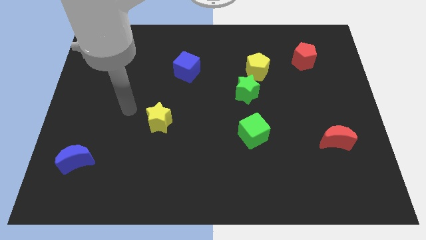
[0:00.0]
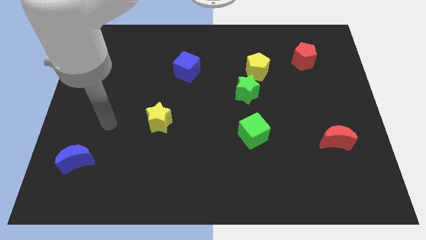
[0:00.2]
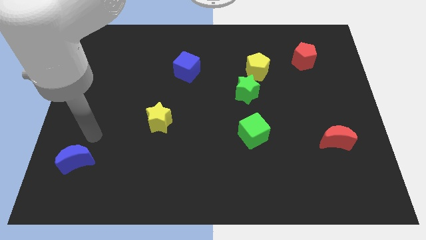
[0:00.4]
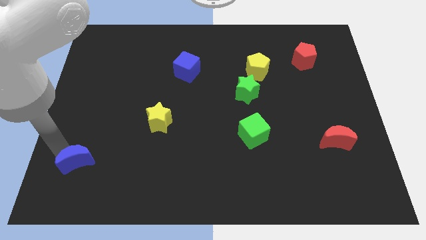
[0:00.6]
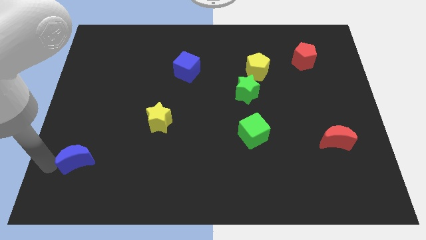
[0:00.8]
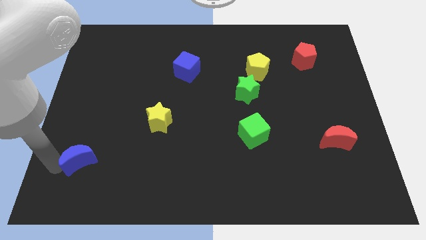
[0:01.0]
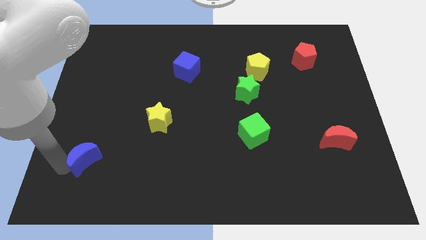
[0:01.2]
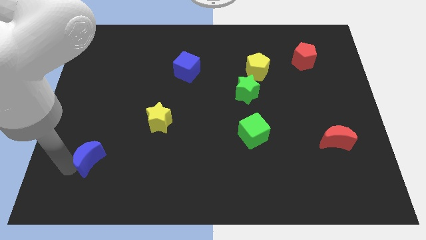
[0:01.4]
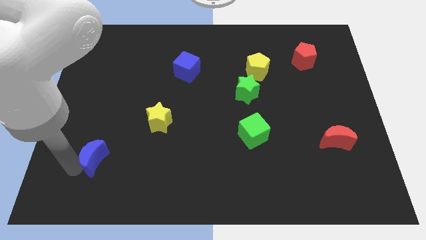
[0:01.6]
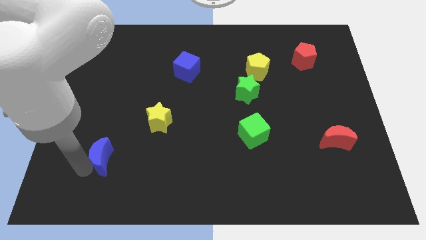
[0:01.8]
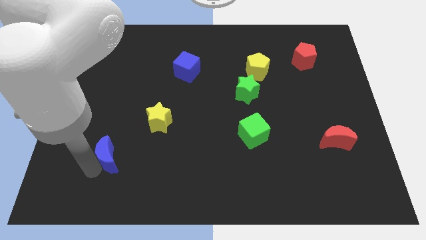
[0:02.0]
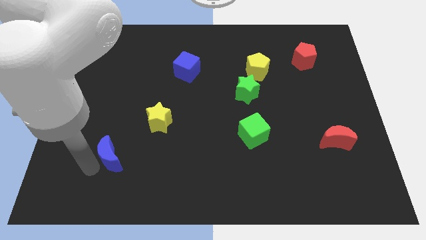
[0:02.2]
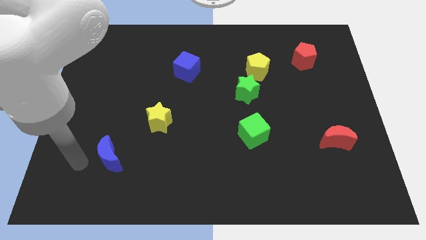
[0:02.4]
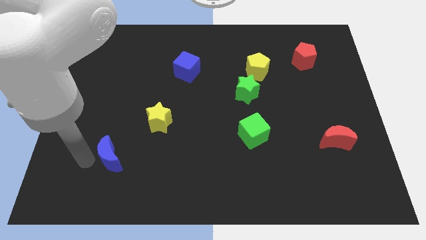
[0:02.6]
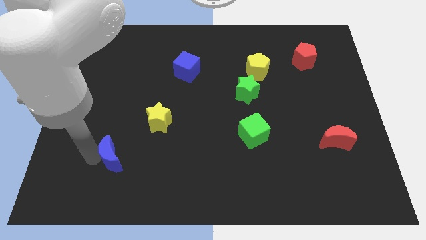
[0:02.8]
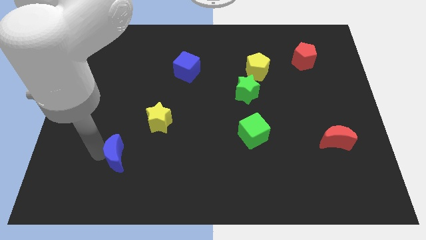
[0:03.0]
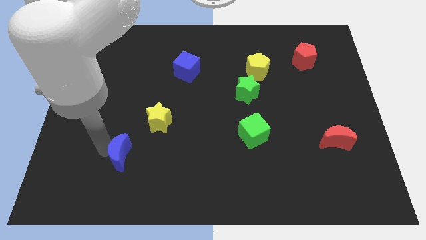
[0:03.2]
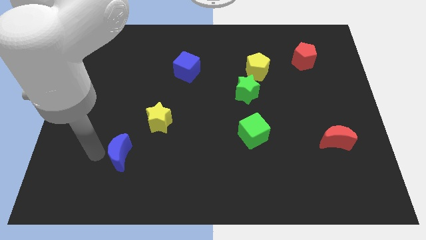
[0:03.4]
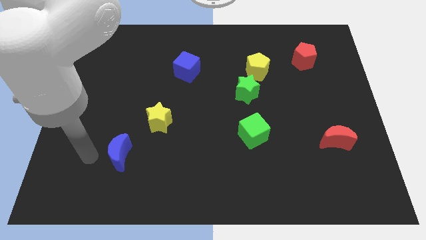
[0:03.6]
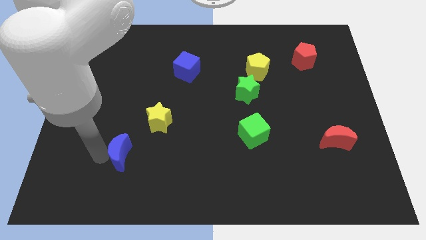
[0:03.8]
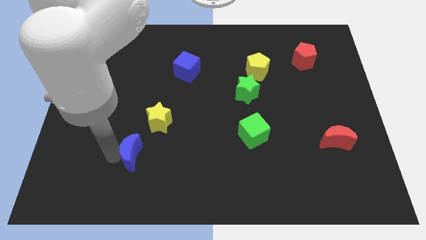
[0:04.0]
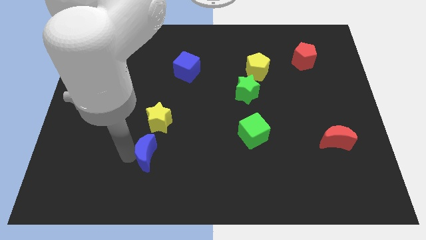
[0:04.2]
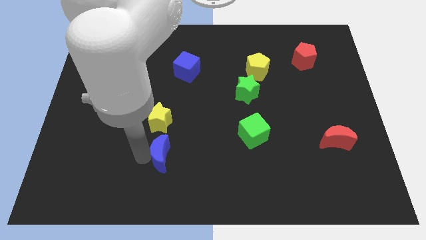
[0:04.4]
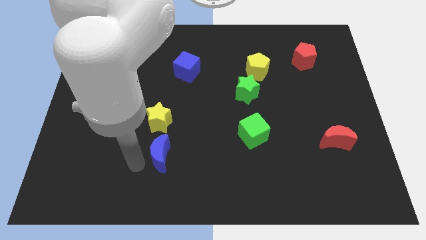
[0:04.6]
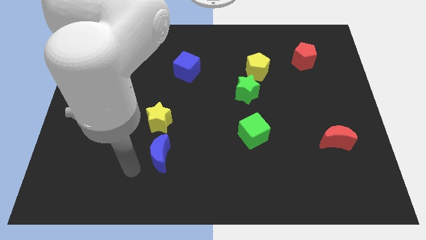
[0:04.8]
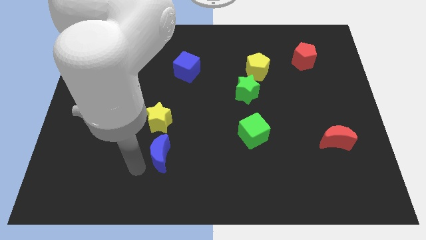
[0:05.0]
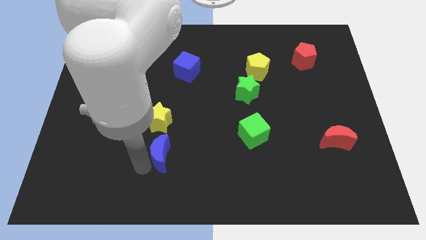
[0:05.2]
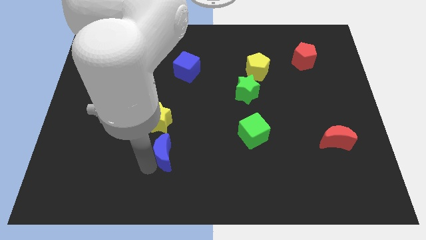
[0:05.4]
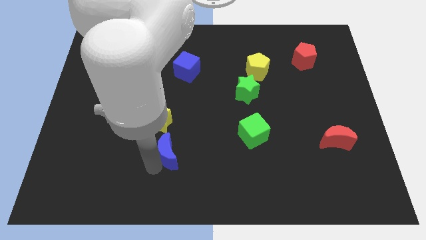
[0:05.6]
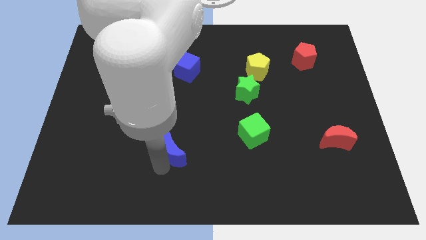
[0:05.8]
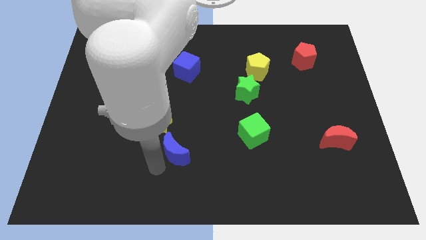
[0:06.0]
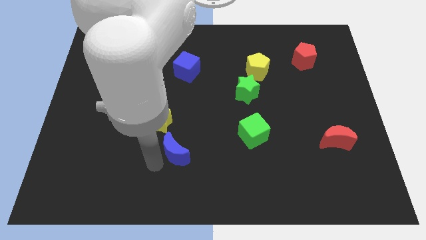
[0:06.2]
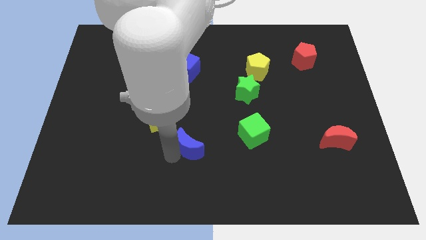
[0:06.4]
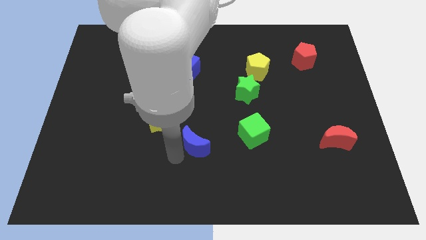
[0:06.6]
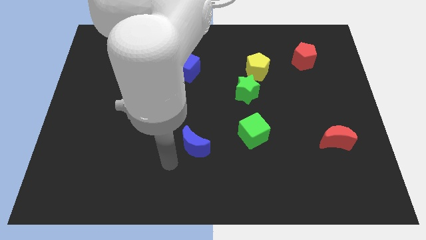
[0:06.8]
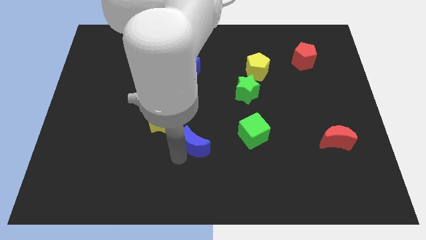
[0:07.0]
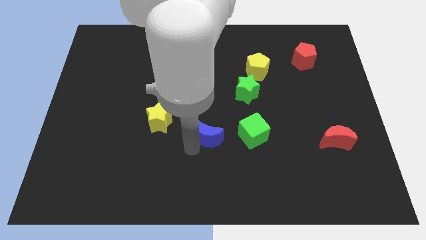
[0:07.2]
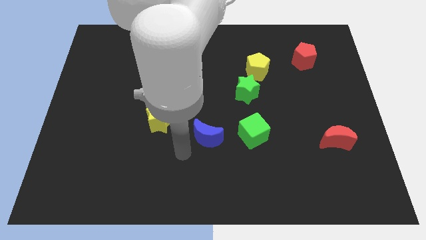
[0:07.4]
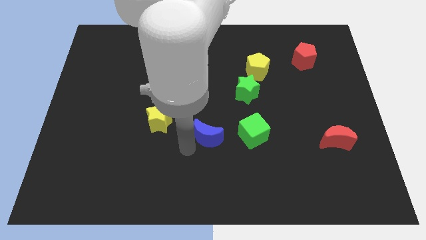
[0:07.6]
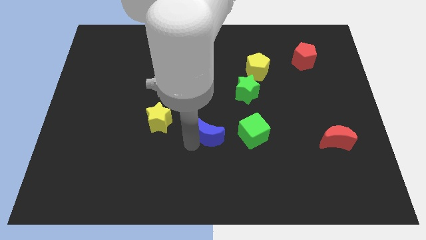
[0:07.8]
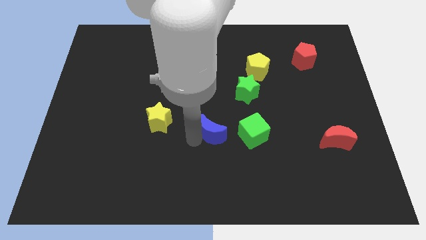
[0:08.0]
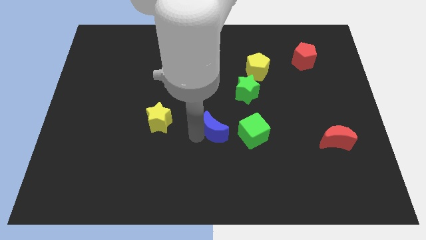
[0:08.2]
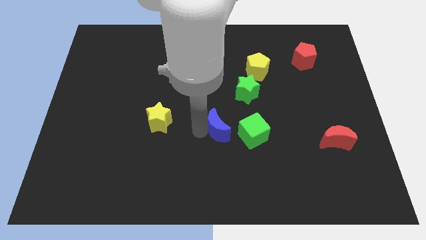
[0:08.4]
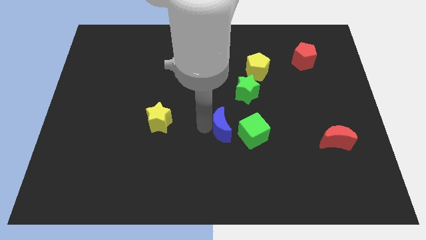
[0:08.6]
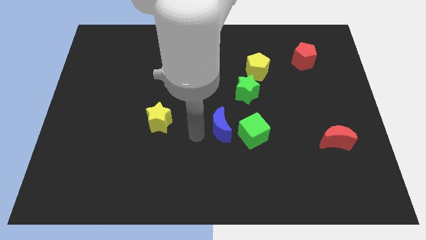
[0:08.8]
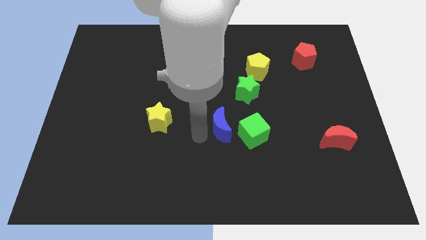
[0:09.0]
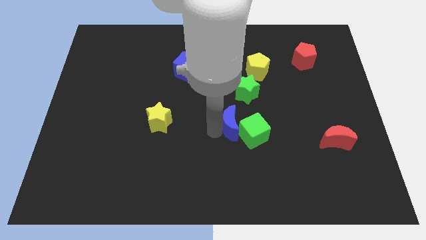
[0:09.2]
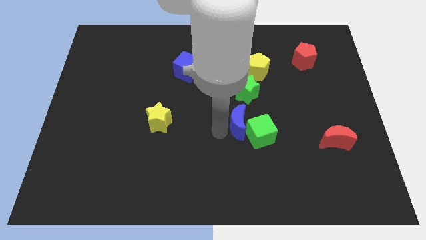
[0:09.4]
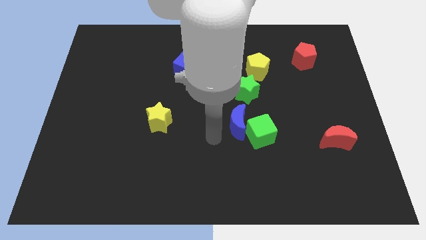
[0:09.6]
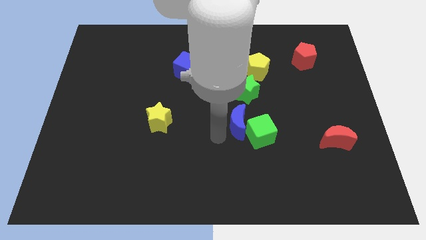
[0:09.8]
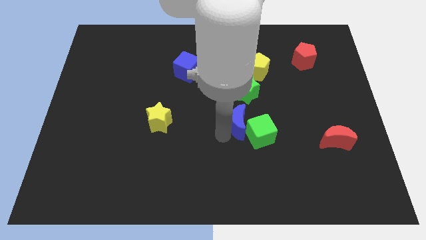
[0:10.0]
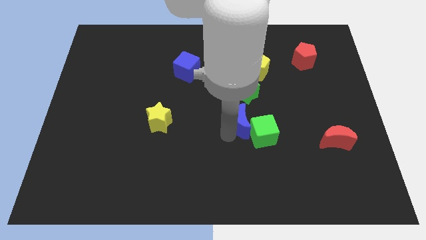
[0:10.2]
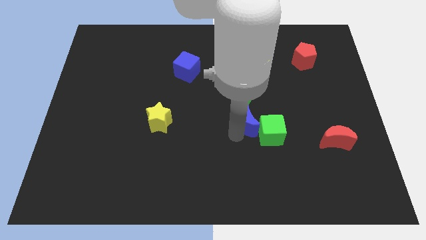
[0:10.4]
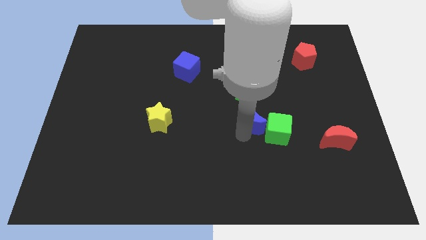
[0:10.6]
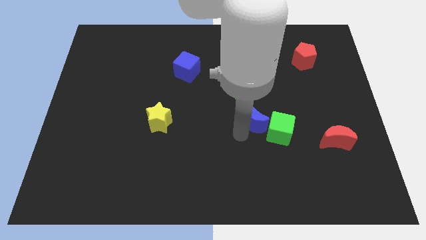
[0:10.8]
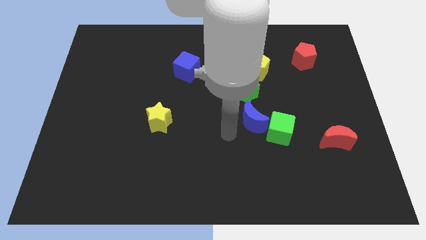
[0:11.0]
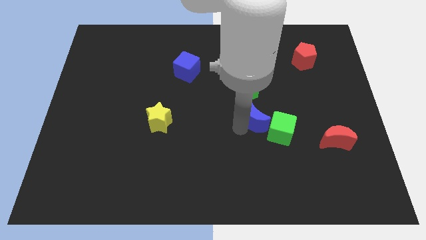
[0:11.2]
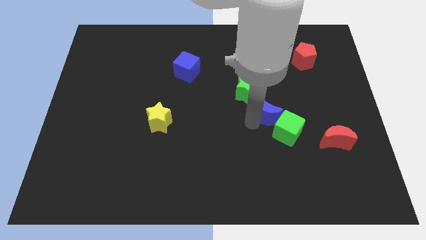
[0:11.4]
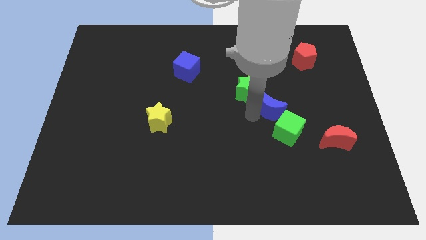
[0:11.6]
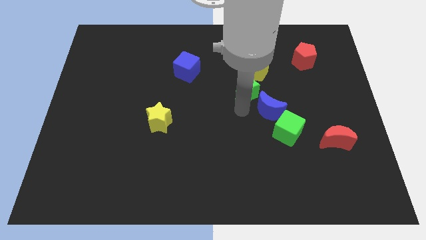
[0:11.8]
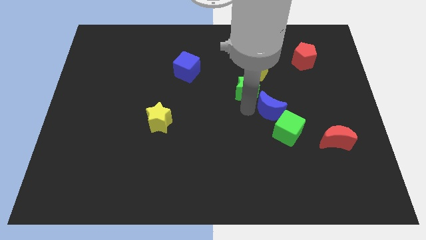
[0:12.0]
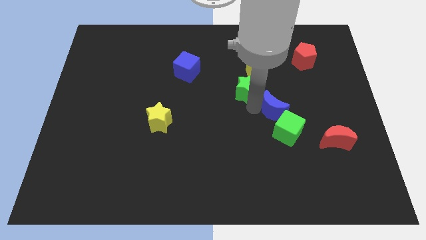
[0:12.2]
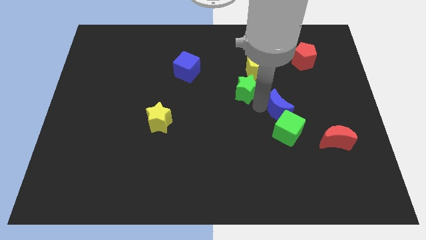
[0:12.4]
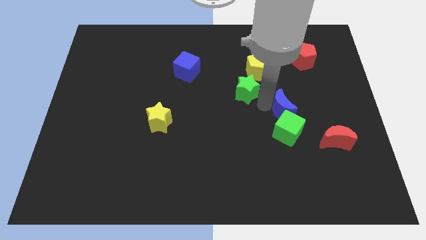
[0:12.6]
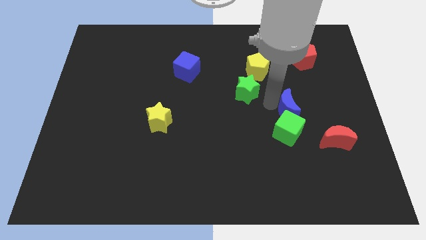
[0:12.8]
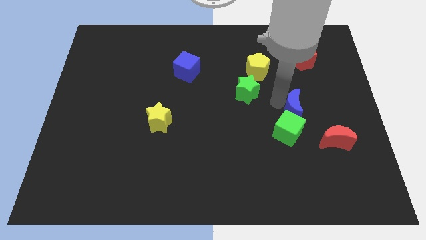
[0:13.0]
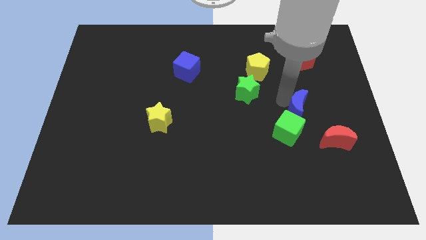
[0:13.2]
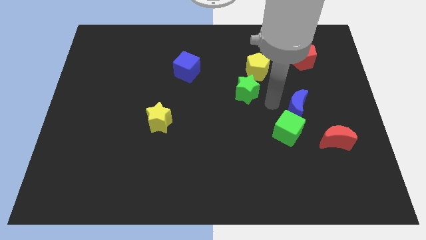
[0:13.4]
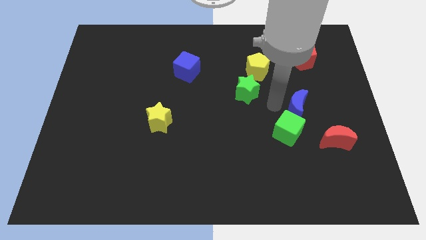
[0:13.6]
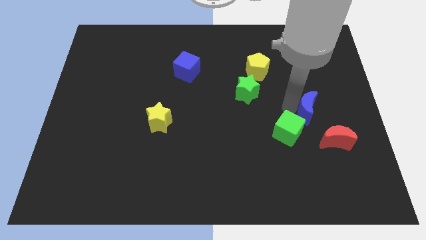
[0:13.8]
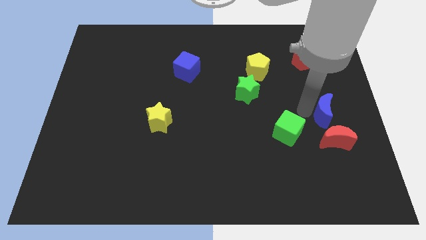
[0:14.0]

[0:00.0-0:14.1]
put the blue moon to the right side
